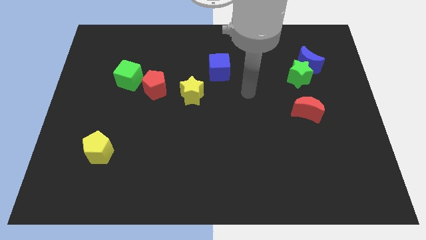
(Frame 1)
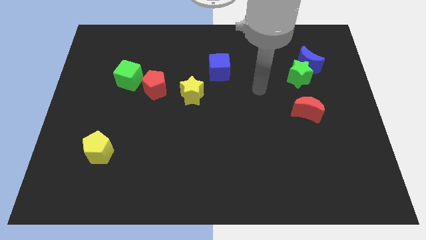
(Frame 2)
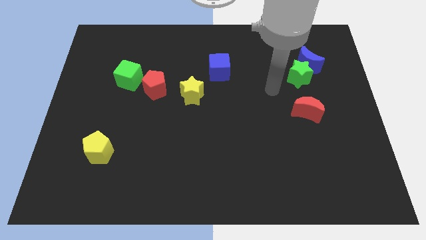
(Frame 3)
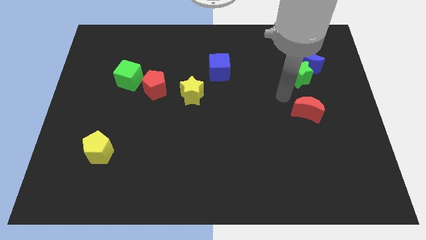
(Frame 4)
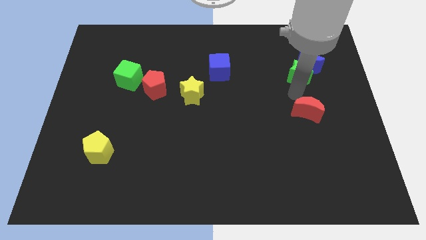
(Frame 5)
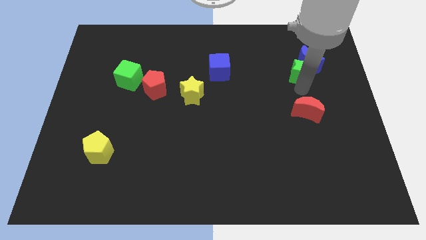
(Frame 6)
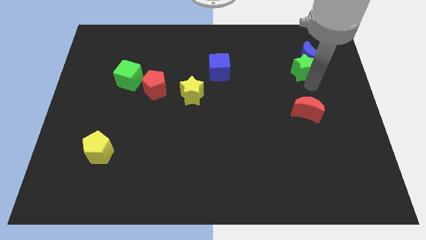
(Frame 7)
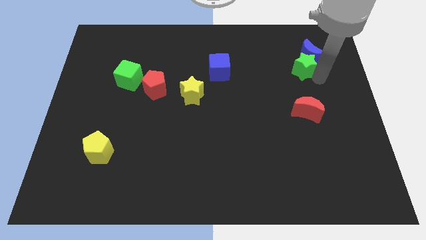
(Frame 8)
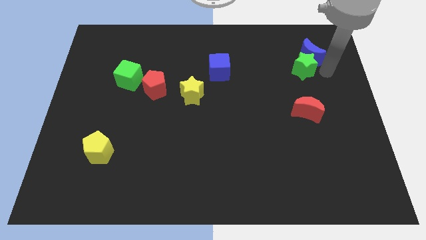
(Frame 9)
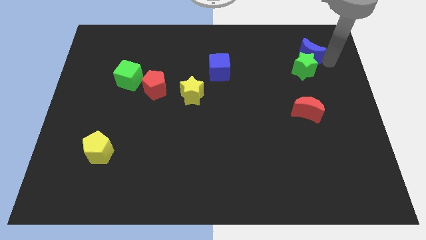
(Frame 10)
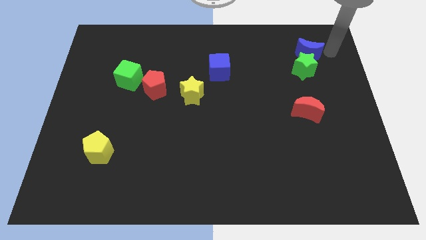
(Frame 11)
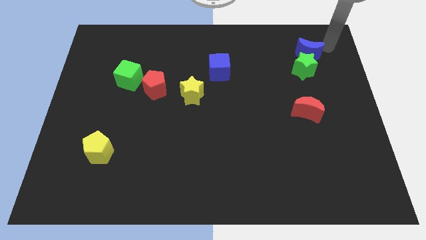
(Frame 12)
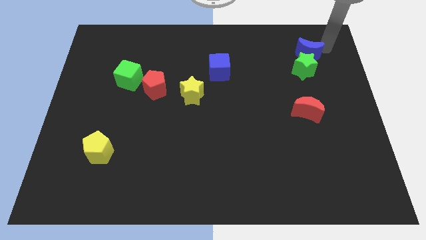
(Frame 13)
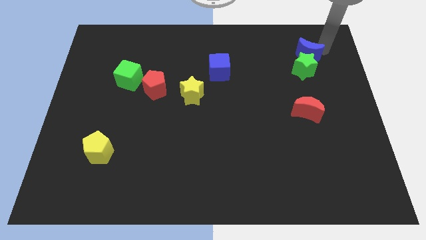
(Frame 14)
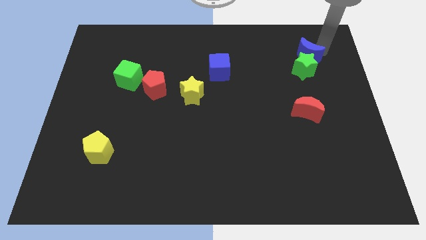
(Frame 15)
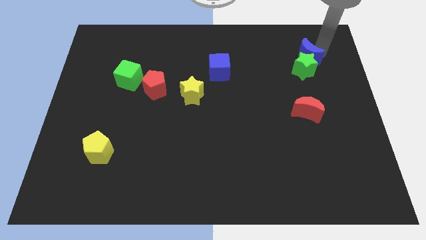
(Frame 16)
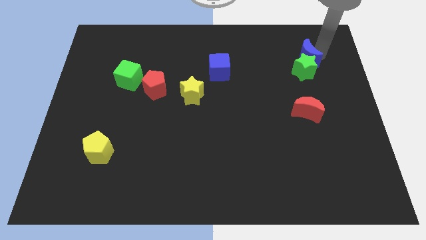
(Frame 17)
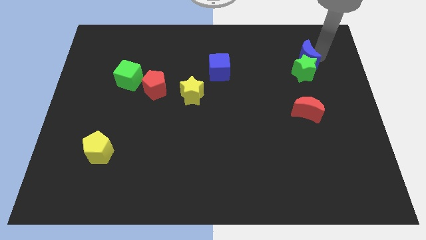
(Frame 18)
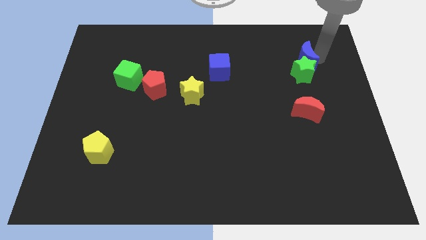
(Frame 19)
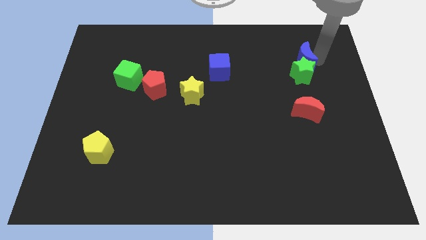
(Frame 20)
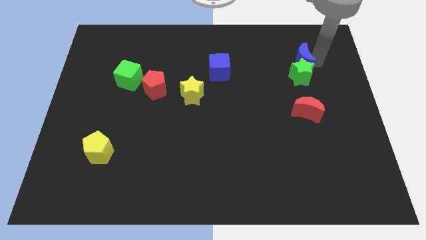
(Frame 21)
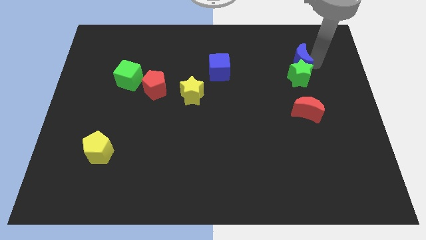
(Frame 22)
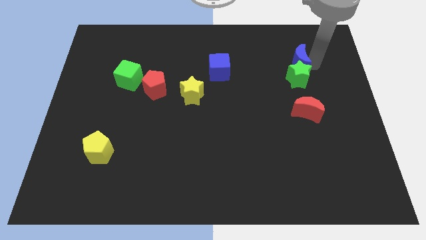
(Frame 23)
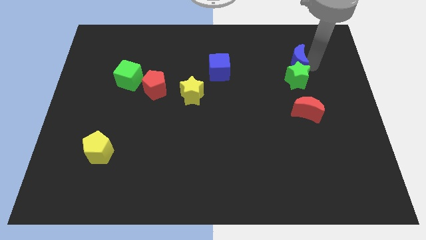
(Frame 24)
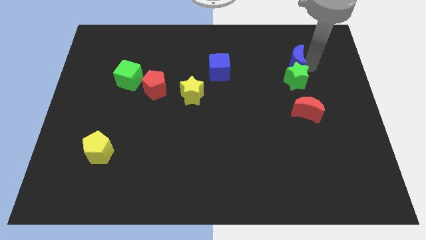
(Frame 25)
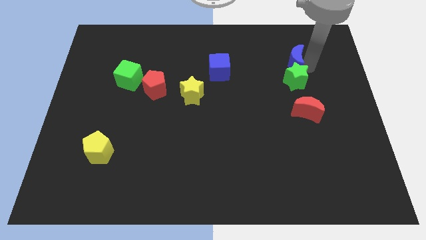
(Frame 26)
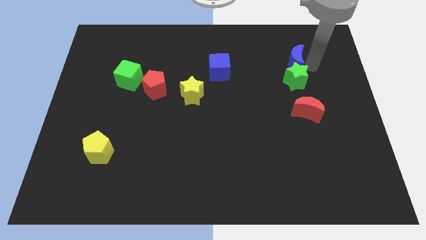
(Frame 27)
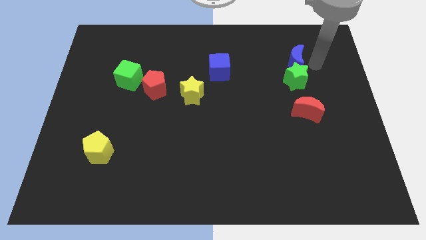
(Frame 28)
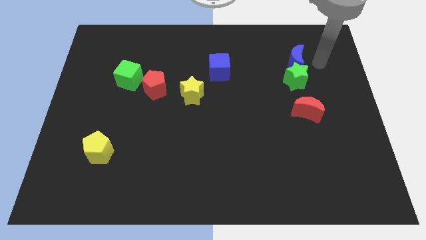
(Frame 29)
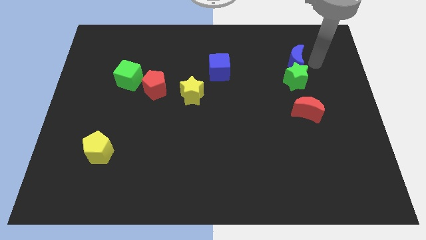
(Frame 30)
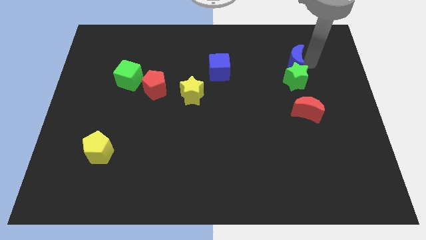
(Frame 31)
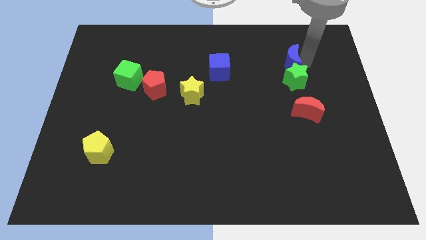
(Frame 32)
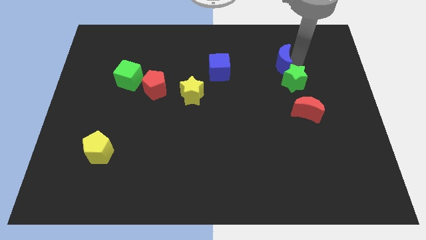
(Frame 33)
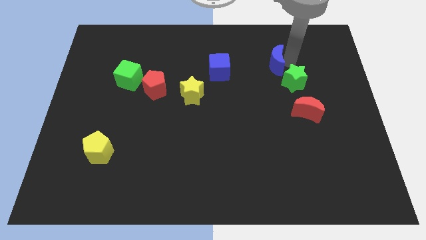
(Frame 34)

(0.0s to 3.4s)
slightly slide the blue moon left

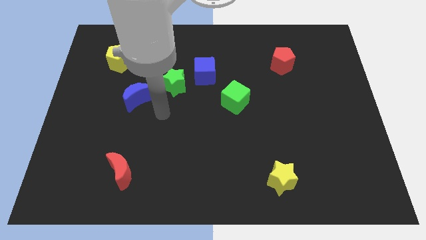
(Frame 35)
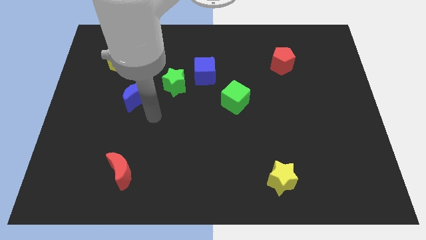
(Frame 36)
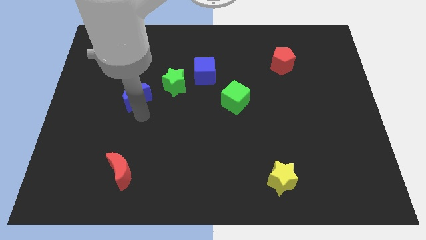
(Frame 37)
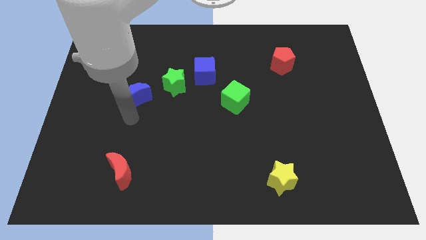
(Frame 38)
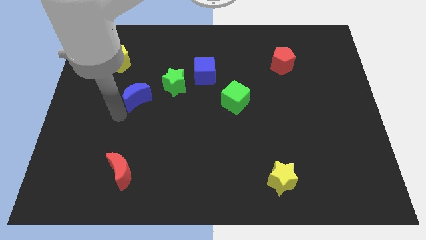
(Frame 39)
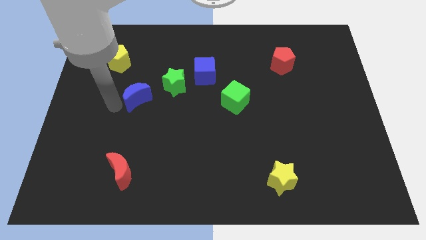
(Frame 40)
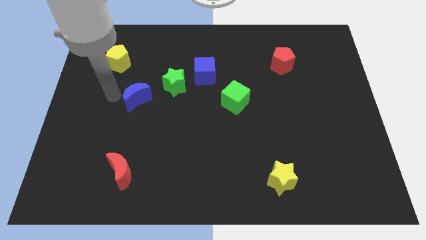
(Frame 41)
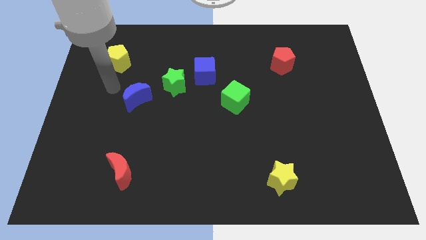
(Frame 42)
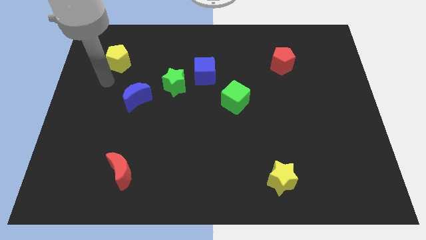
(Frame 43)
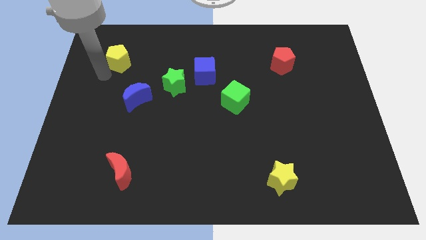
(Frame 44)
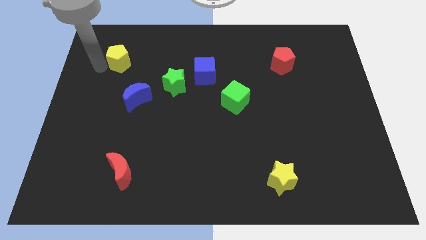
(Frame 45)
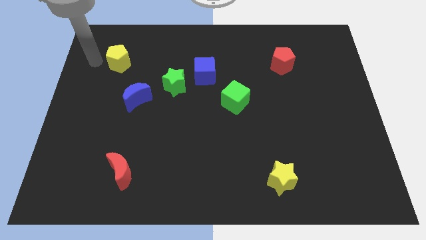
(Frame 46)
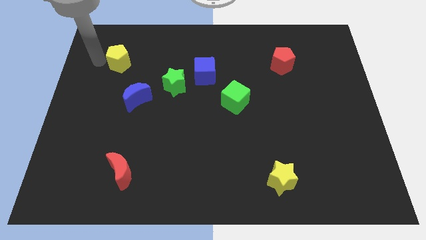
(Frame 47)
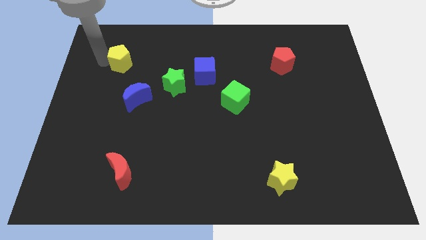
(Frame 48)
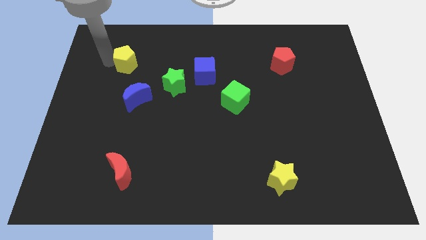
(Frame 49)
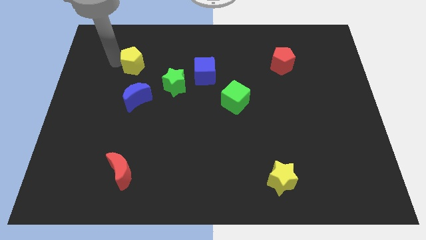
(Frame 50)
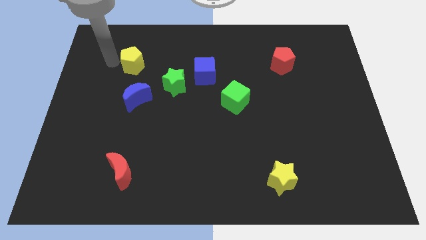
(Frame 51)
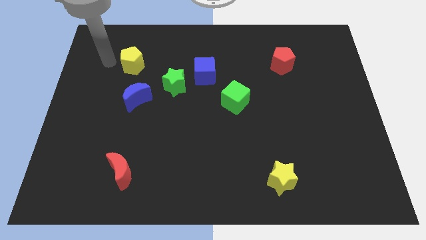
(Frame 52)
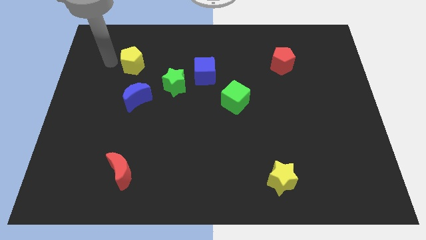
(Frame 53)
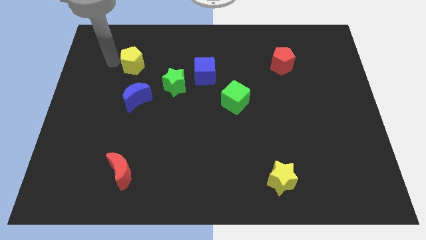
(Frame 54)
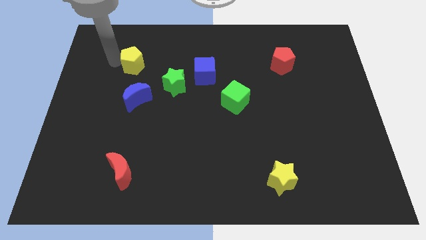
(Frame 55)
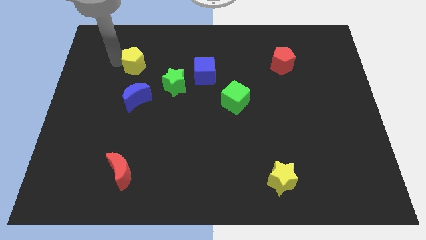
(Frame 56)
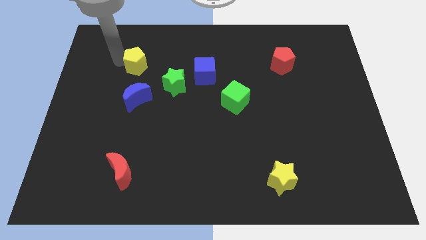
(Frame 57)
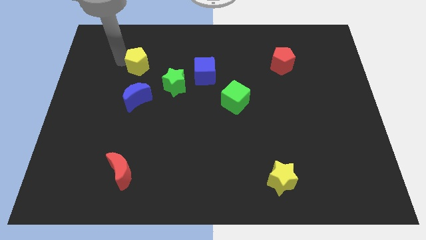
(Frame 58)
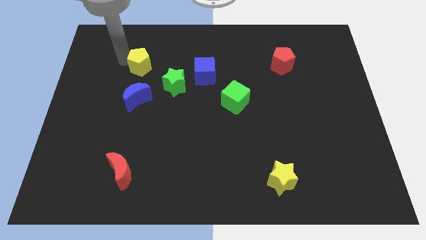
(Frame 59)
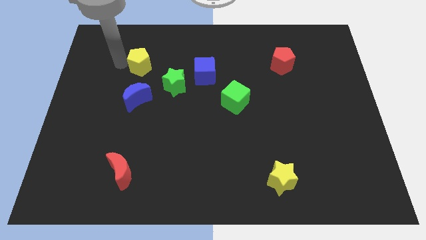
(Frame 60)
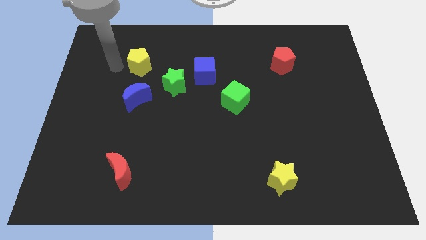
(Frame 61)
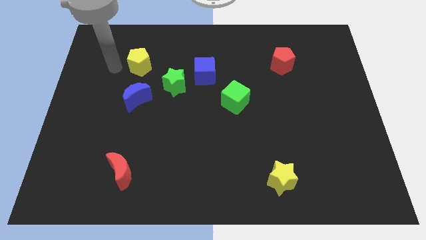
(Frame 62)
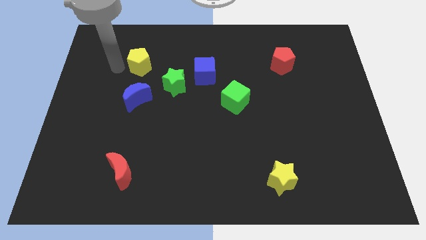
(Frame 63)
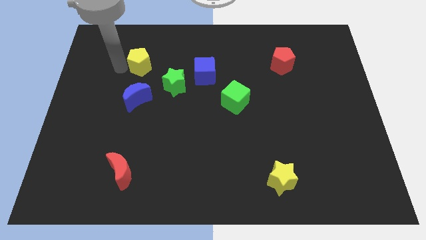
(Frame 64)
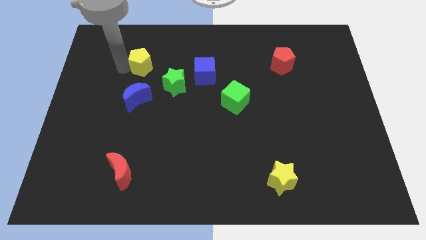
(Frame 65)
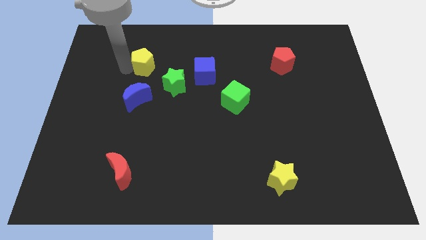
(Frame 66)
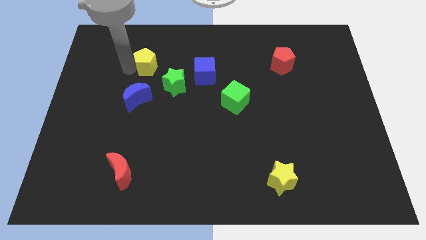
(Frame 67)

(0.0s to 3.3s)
move the yellow pentagon right a bit

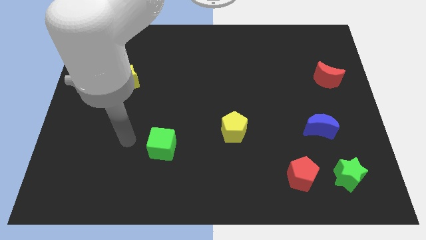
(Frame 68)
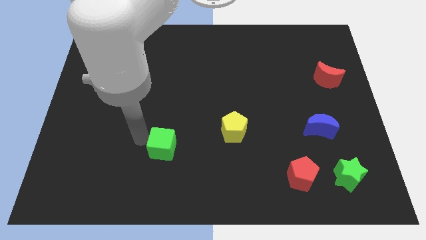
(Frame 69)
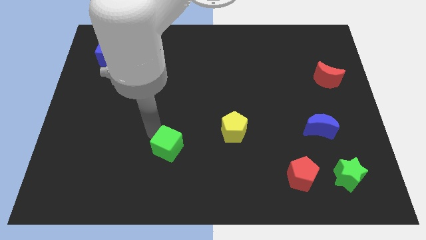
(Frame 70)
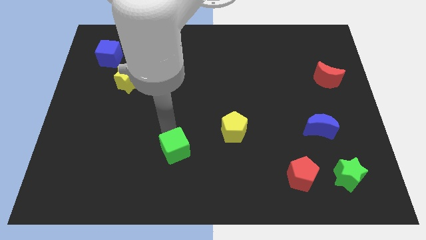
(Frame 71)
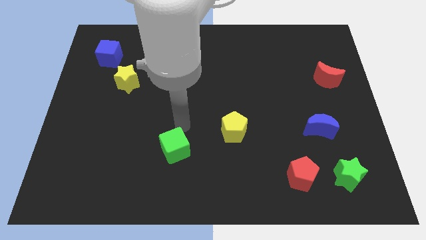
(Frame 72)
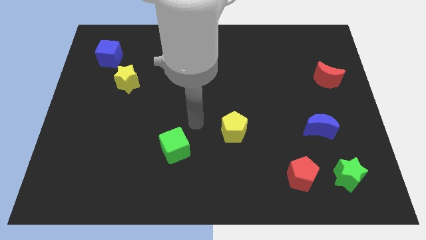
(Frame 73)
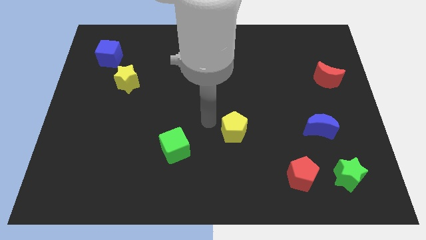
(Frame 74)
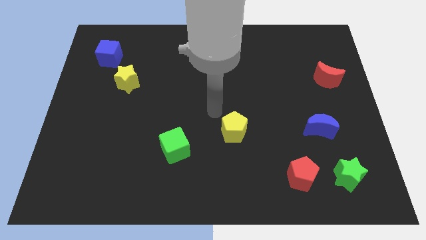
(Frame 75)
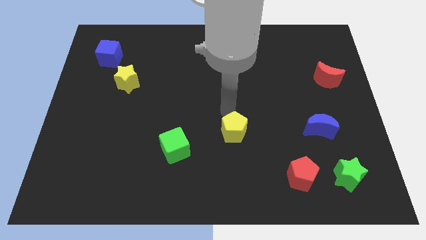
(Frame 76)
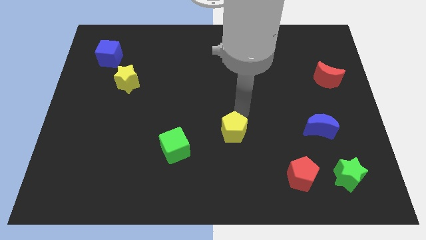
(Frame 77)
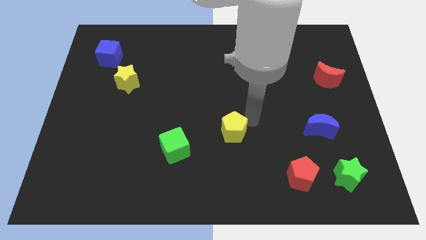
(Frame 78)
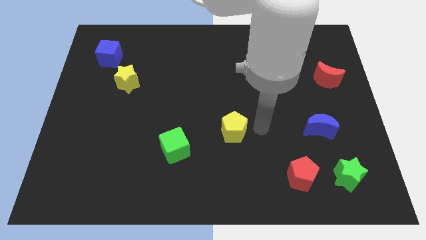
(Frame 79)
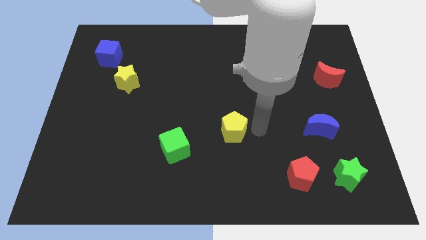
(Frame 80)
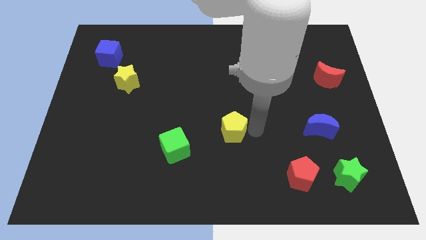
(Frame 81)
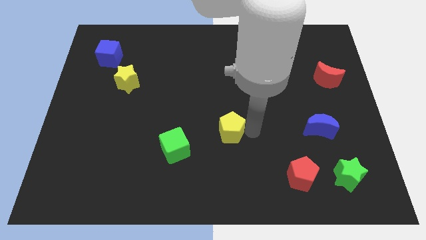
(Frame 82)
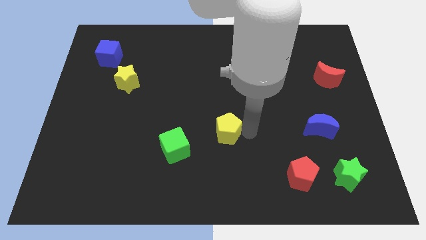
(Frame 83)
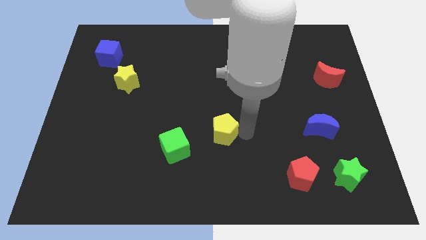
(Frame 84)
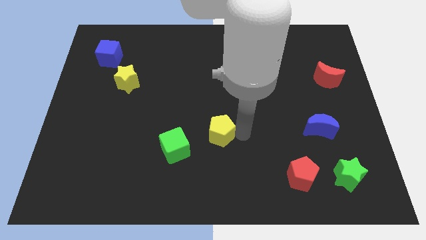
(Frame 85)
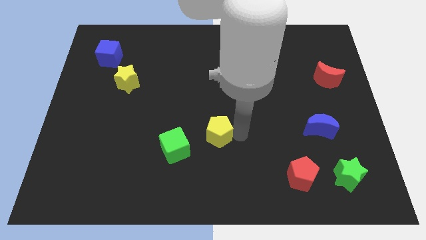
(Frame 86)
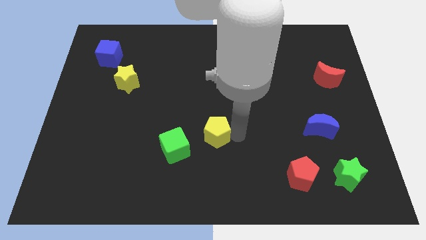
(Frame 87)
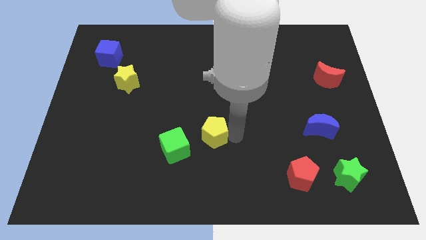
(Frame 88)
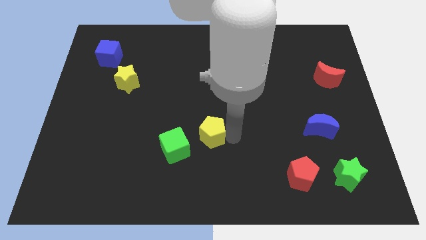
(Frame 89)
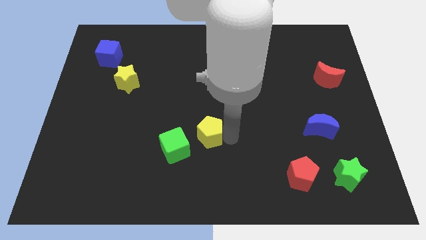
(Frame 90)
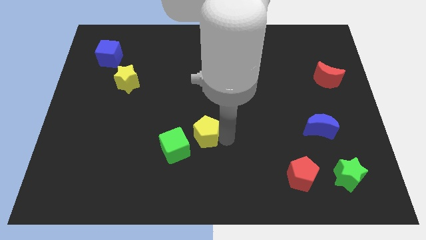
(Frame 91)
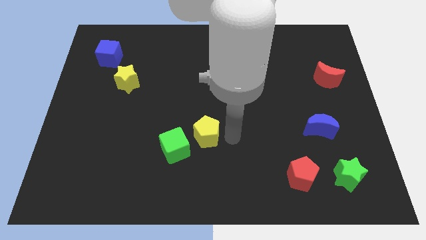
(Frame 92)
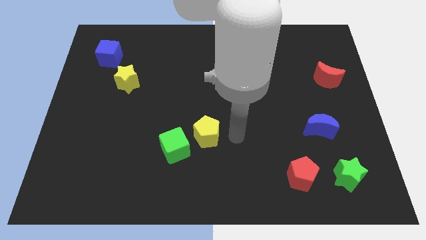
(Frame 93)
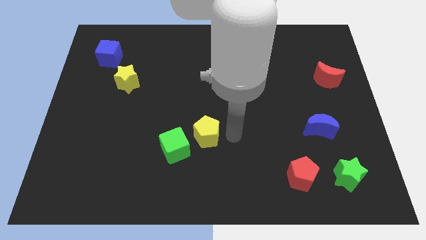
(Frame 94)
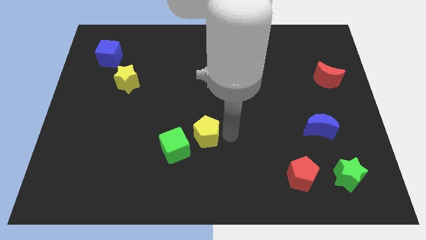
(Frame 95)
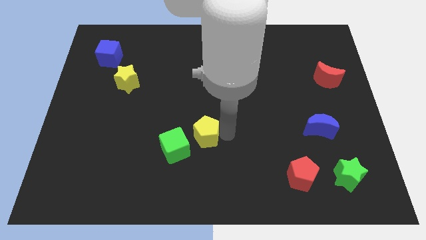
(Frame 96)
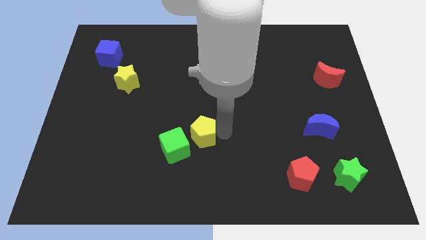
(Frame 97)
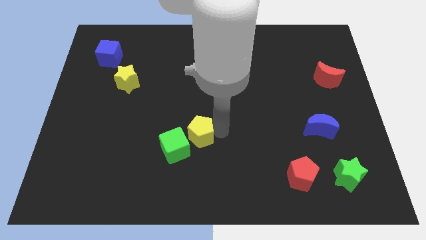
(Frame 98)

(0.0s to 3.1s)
push the yellow pentagon to the left slightly
